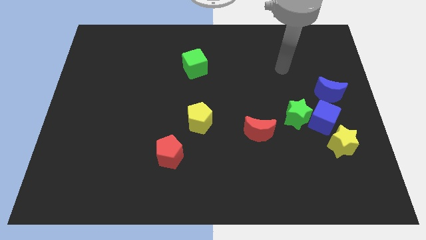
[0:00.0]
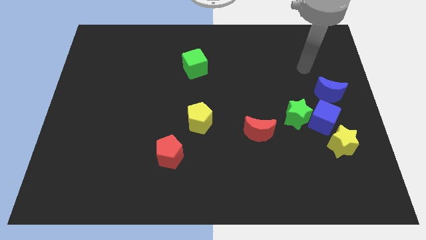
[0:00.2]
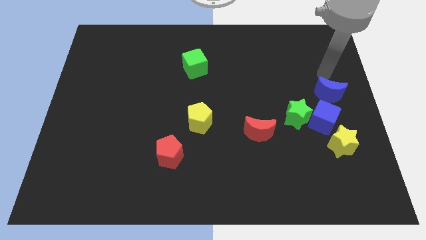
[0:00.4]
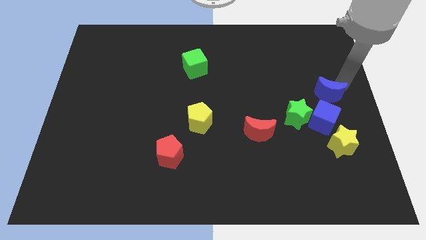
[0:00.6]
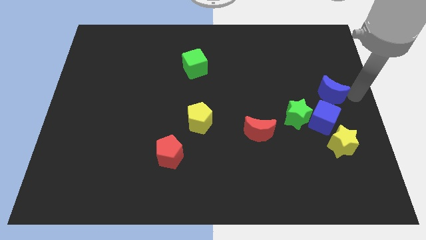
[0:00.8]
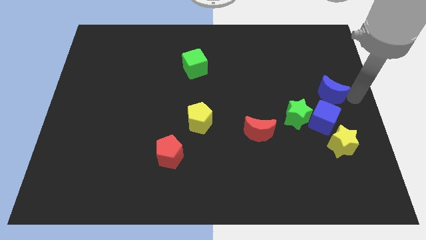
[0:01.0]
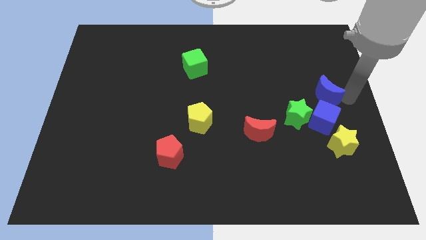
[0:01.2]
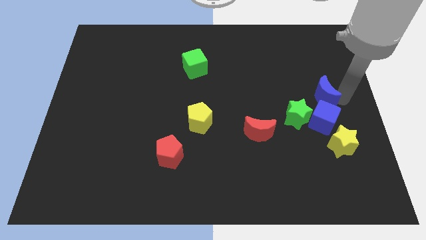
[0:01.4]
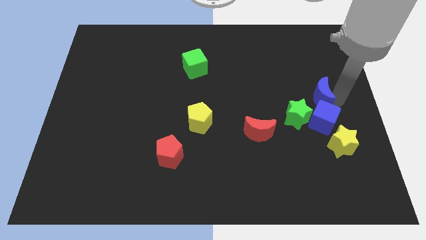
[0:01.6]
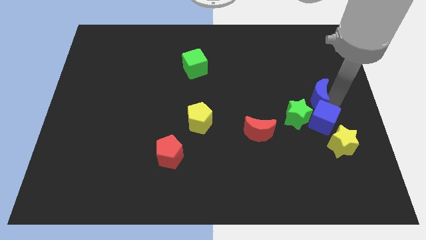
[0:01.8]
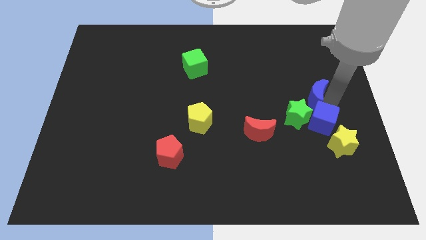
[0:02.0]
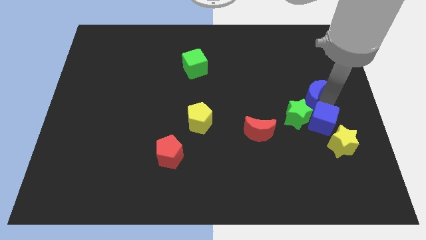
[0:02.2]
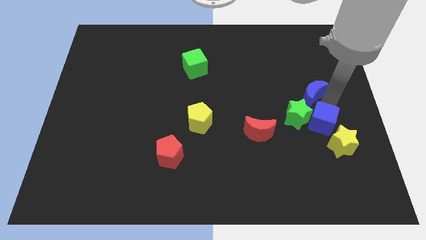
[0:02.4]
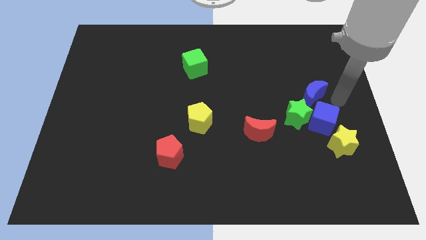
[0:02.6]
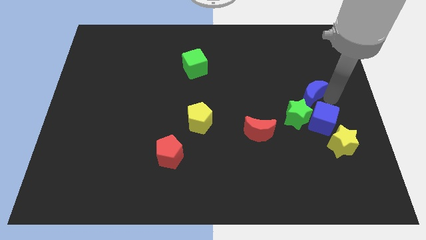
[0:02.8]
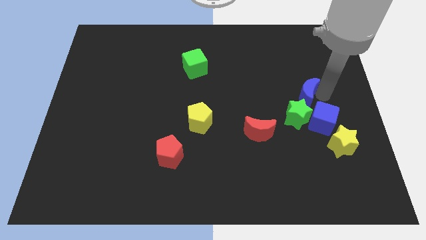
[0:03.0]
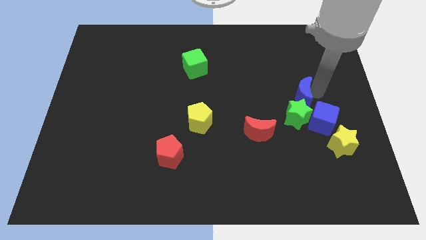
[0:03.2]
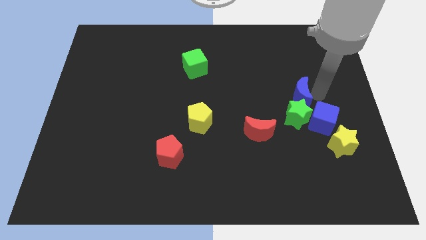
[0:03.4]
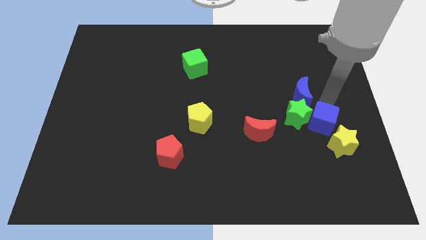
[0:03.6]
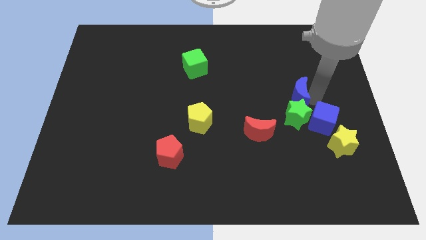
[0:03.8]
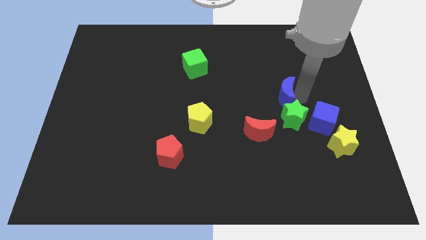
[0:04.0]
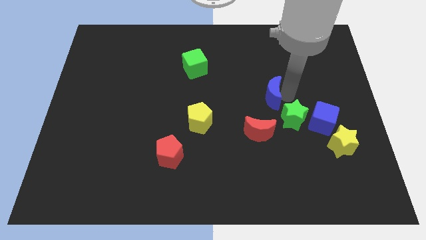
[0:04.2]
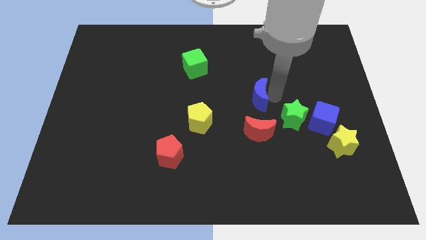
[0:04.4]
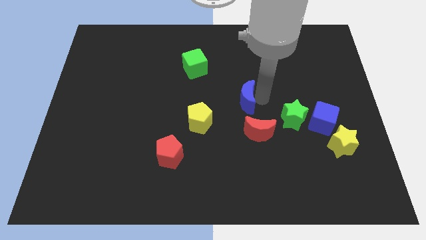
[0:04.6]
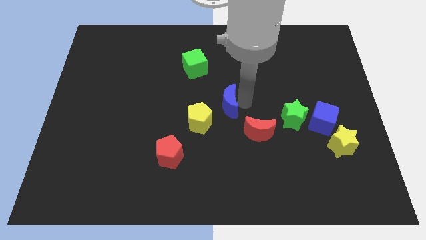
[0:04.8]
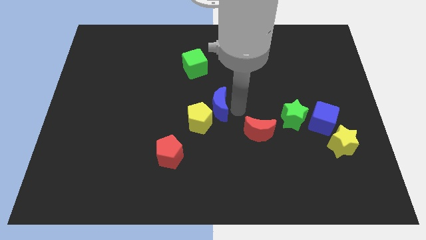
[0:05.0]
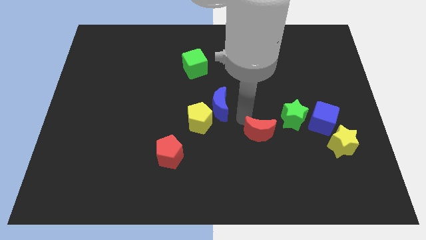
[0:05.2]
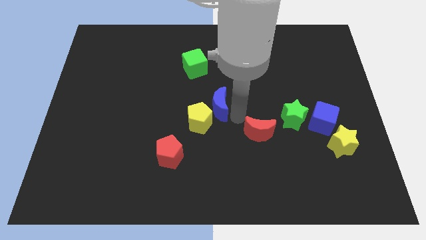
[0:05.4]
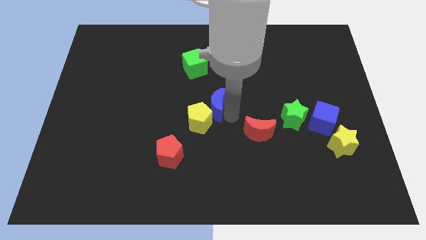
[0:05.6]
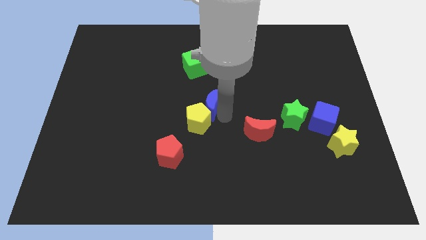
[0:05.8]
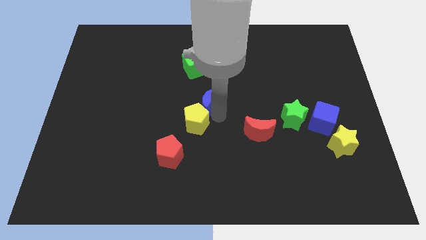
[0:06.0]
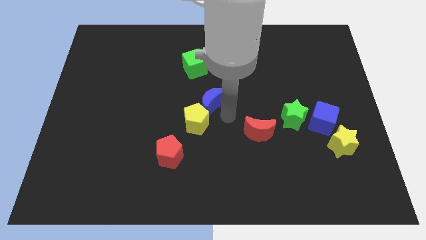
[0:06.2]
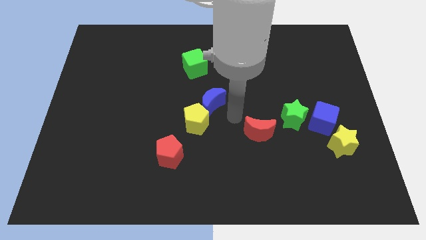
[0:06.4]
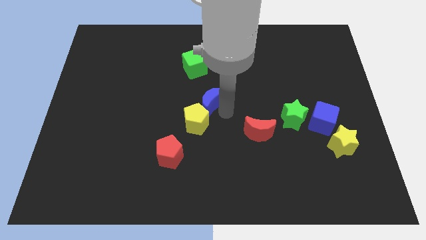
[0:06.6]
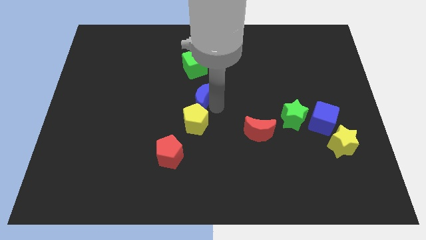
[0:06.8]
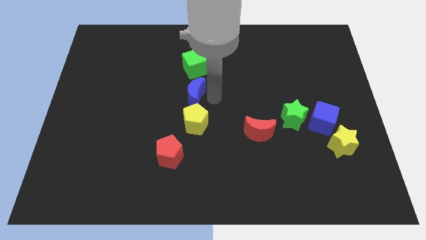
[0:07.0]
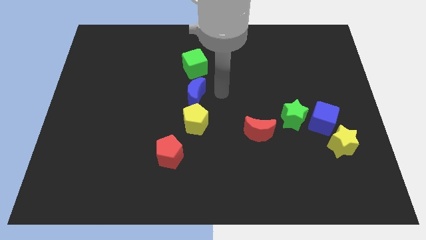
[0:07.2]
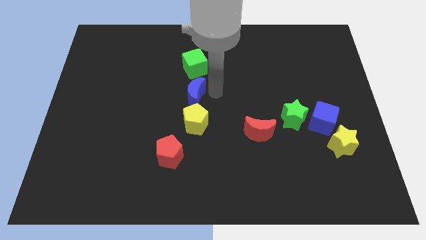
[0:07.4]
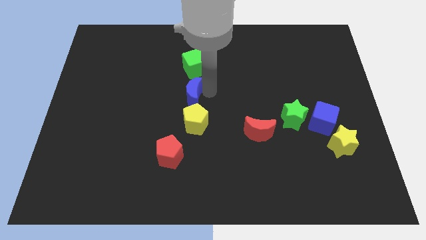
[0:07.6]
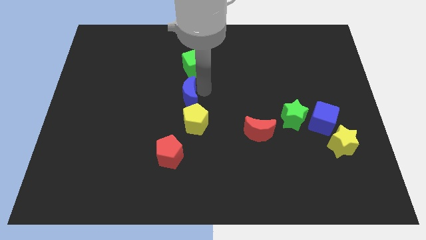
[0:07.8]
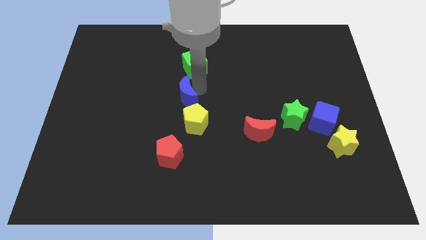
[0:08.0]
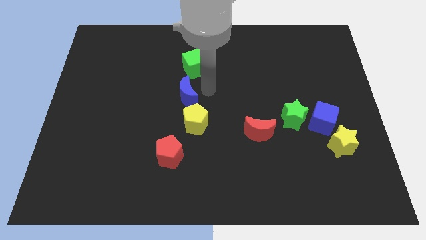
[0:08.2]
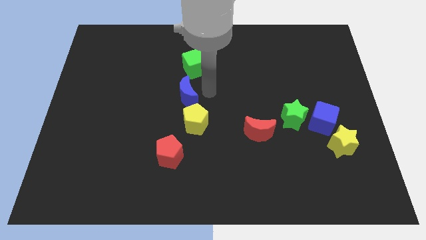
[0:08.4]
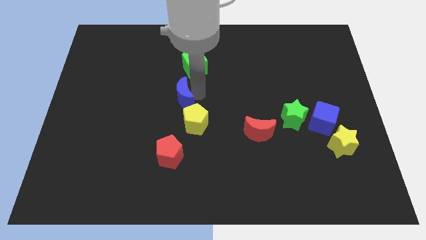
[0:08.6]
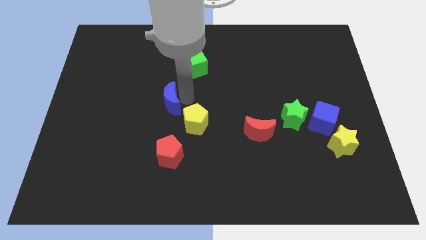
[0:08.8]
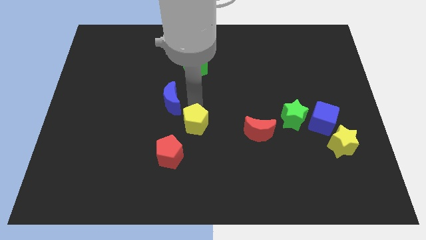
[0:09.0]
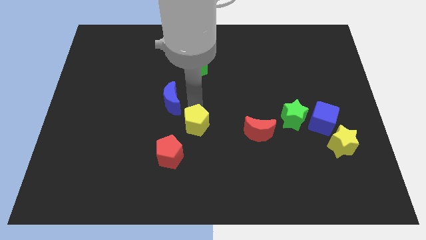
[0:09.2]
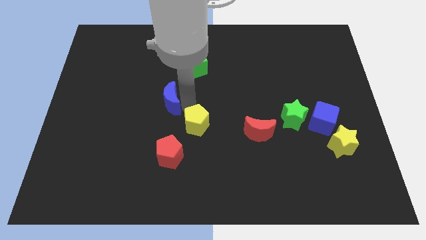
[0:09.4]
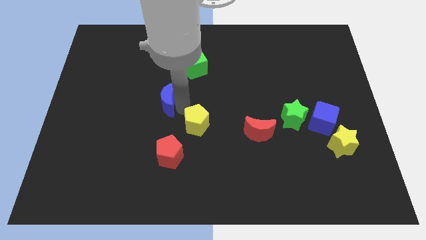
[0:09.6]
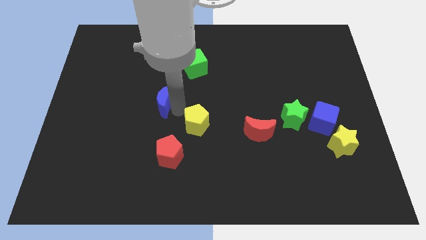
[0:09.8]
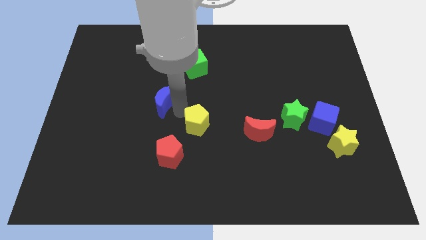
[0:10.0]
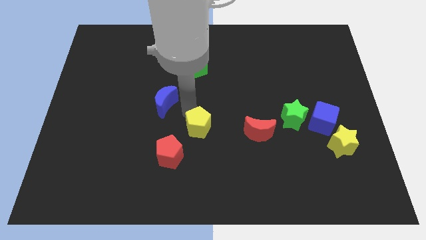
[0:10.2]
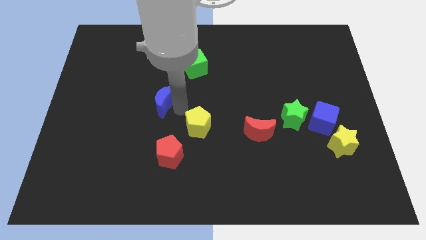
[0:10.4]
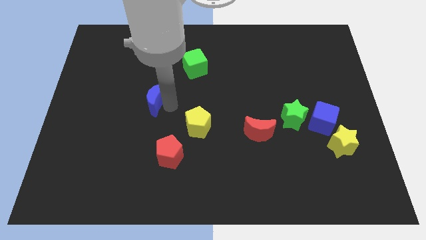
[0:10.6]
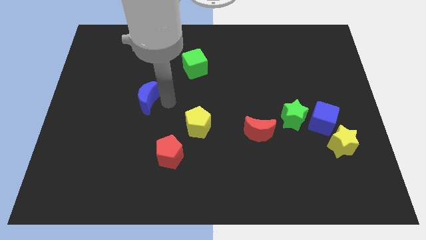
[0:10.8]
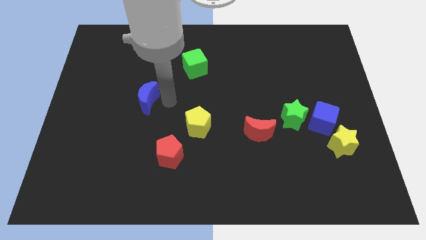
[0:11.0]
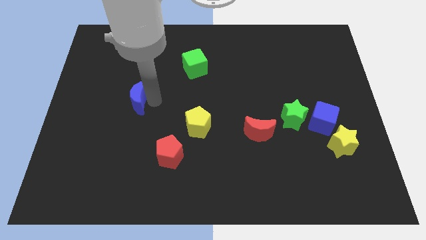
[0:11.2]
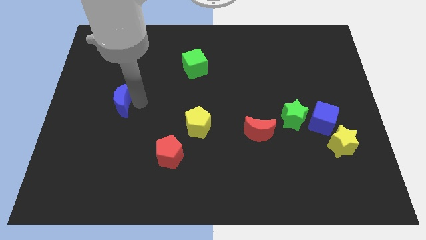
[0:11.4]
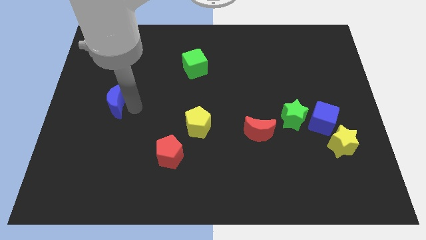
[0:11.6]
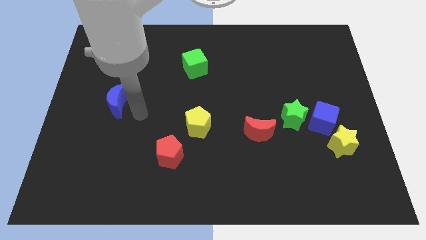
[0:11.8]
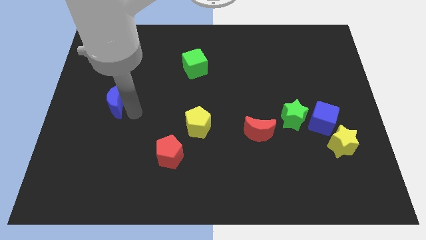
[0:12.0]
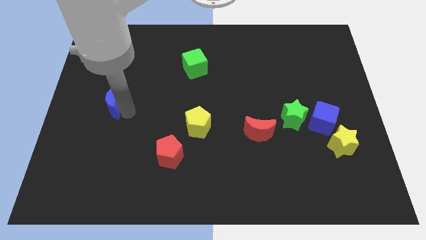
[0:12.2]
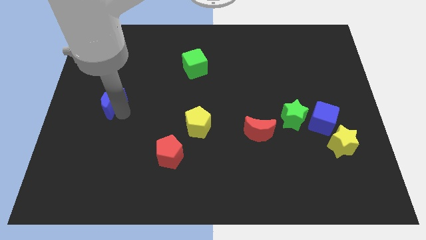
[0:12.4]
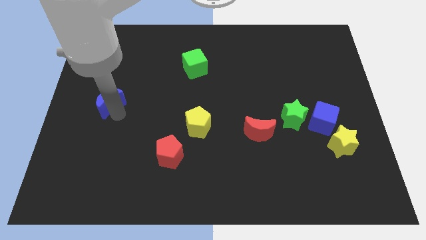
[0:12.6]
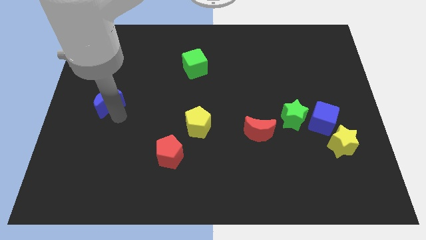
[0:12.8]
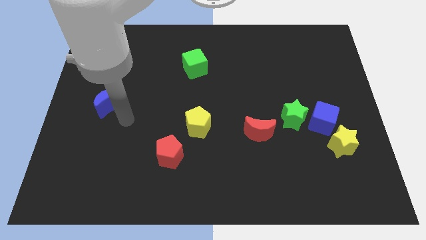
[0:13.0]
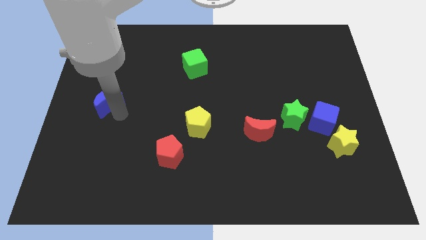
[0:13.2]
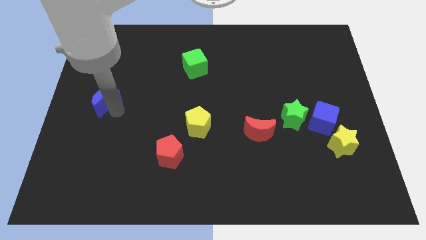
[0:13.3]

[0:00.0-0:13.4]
slide the blue moon to the left side of the board
